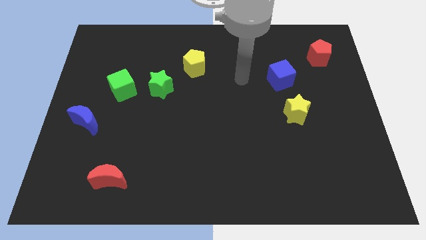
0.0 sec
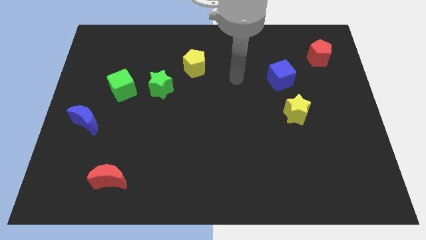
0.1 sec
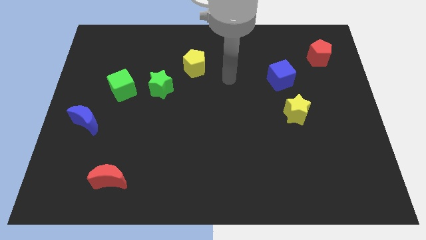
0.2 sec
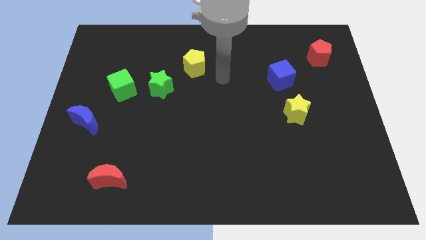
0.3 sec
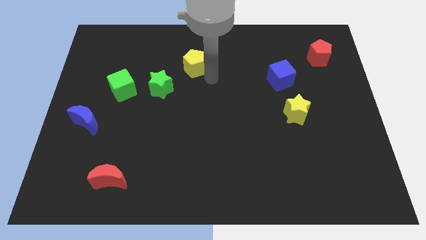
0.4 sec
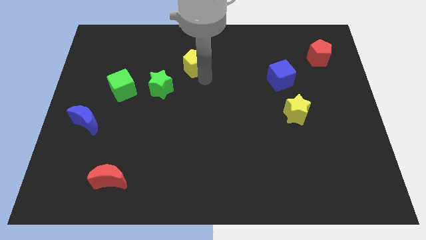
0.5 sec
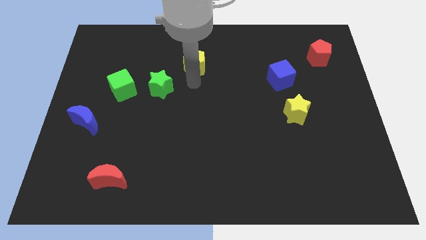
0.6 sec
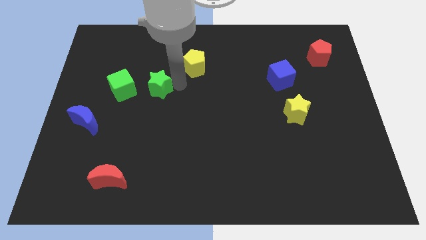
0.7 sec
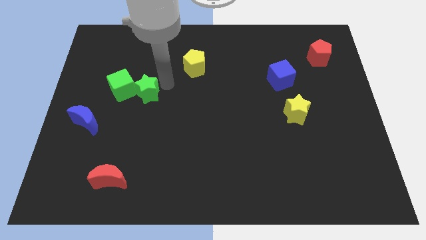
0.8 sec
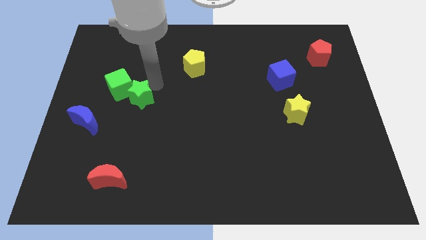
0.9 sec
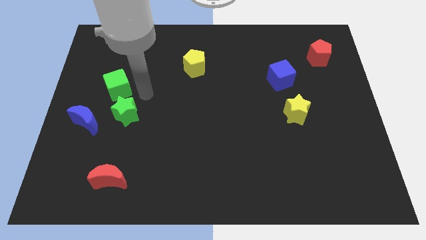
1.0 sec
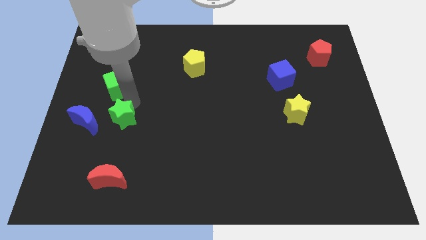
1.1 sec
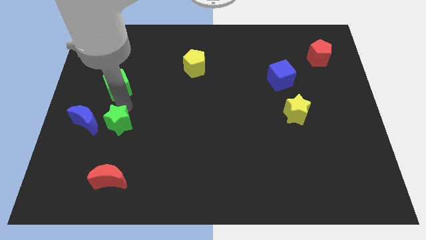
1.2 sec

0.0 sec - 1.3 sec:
pull the green cube apart from the green star

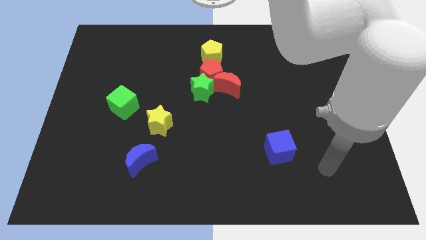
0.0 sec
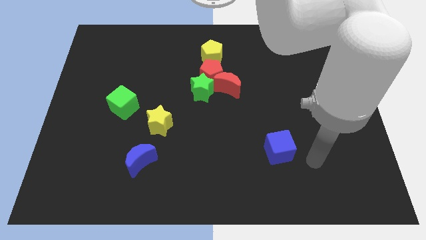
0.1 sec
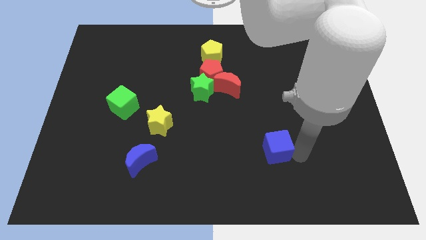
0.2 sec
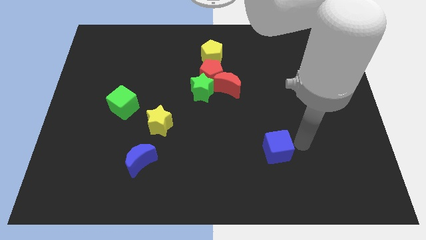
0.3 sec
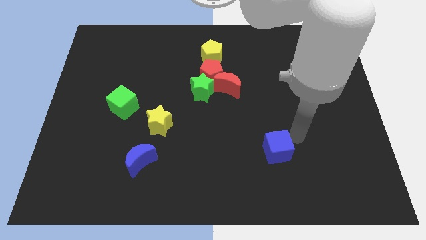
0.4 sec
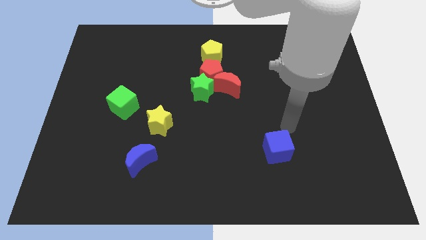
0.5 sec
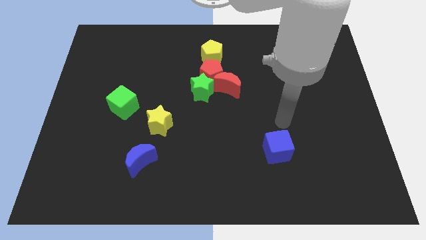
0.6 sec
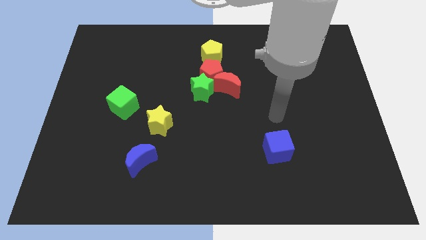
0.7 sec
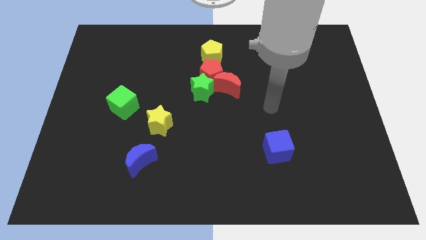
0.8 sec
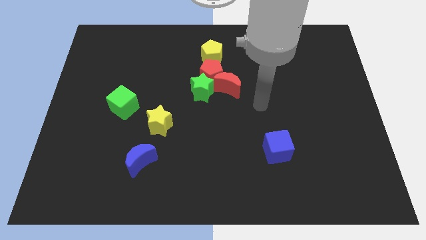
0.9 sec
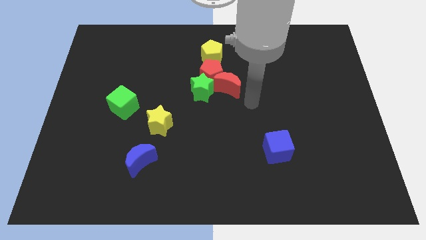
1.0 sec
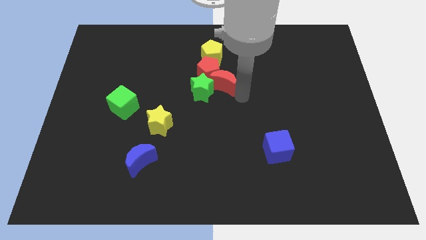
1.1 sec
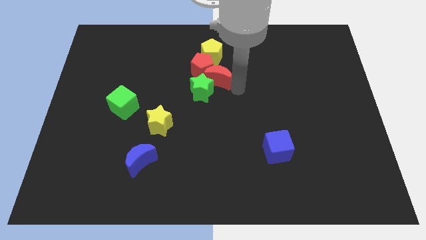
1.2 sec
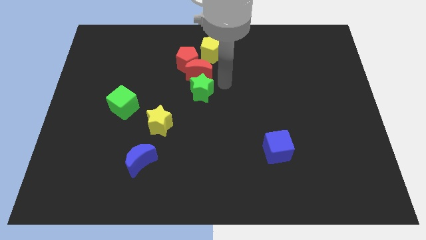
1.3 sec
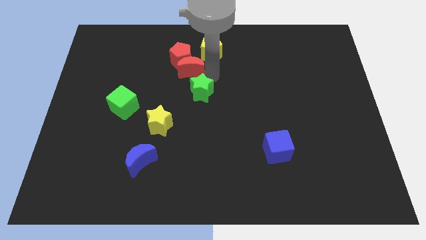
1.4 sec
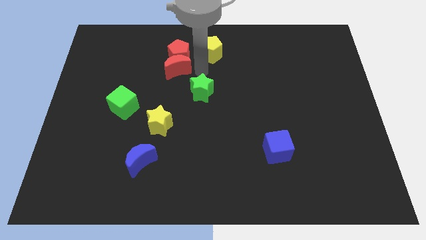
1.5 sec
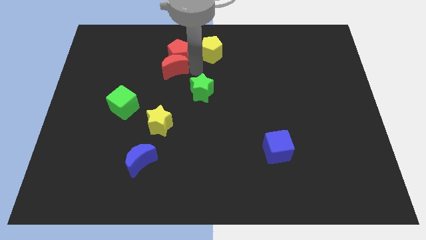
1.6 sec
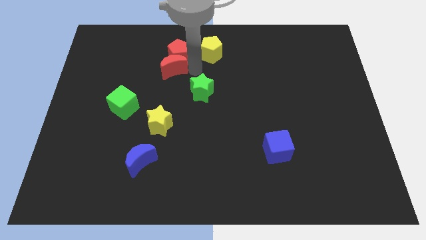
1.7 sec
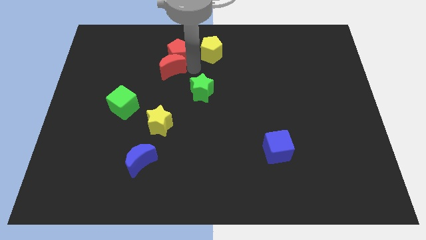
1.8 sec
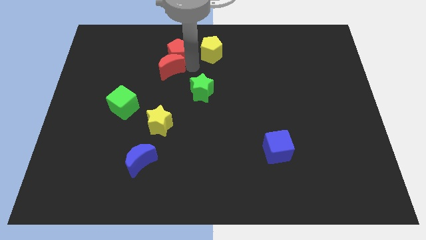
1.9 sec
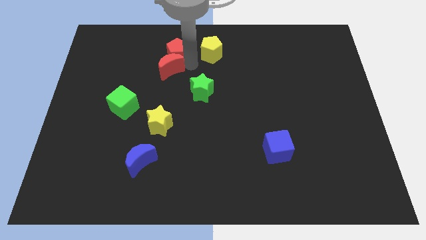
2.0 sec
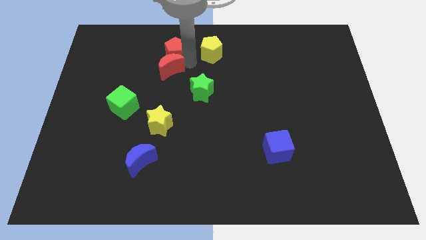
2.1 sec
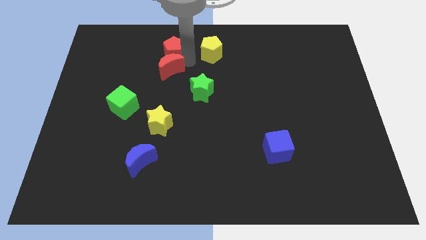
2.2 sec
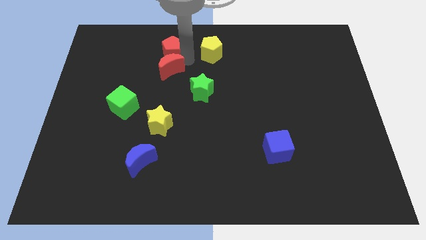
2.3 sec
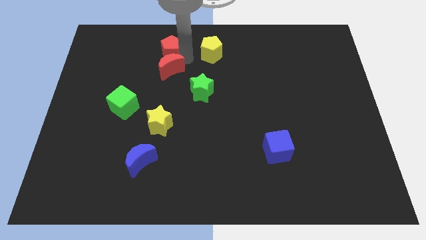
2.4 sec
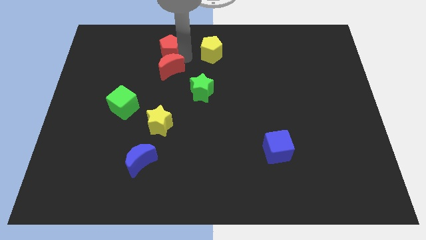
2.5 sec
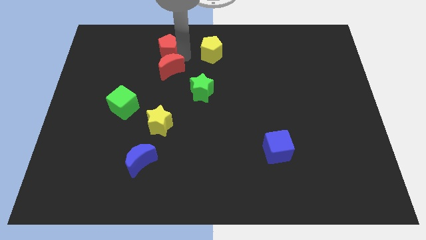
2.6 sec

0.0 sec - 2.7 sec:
separate the red pentagon from the group of blocks

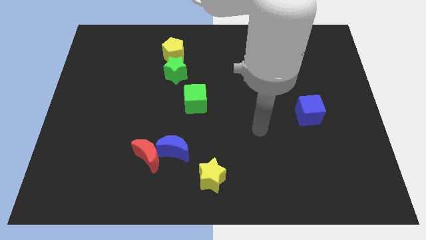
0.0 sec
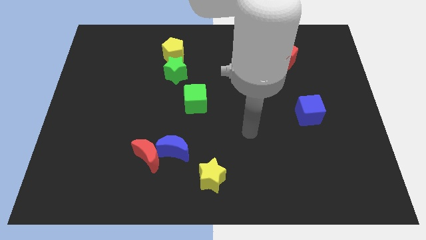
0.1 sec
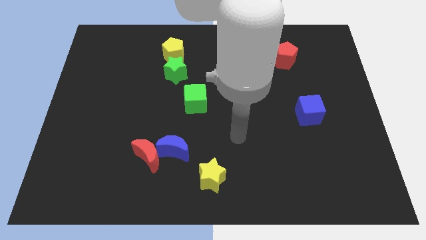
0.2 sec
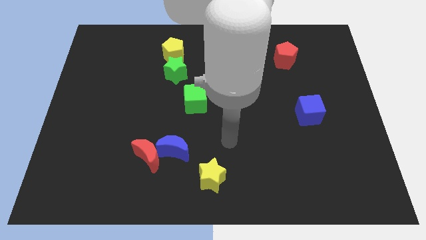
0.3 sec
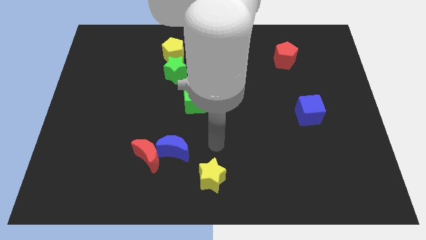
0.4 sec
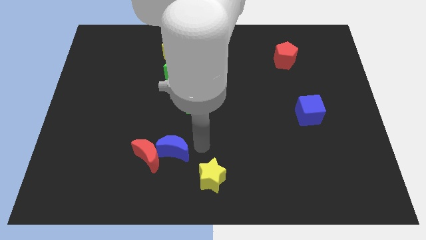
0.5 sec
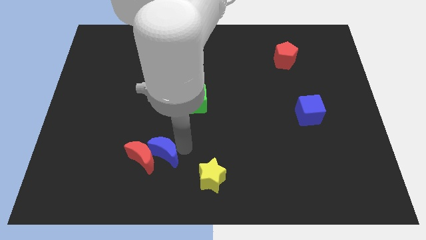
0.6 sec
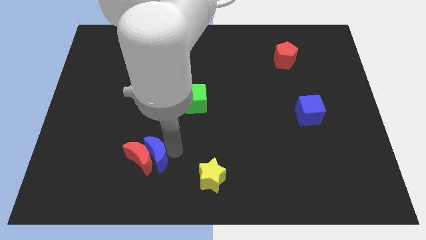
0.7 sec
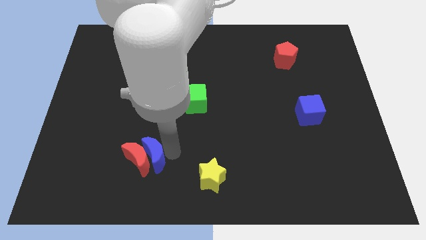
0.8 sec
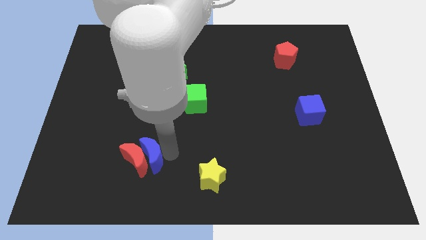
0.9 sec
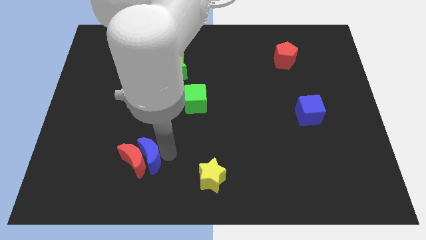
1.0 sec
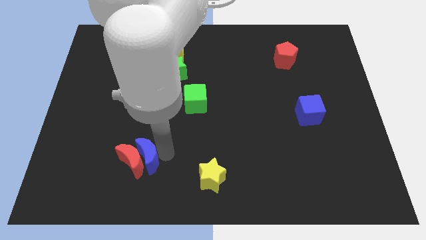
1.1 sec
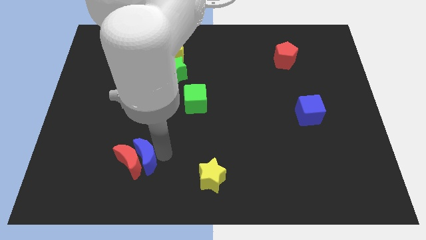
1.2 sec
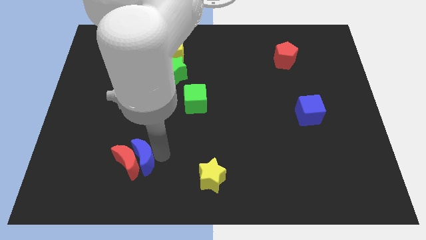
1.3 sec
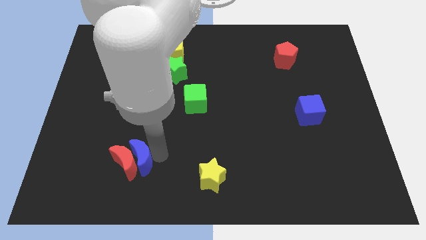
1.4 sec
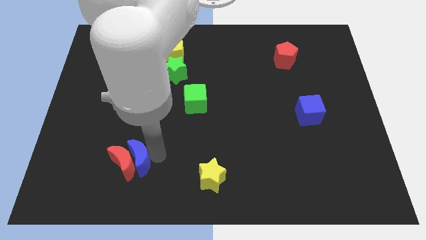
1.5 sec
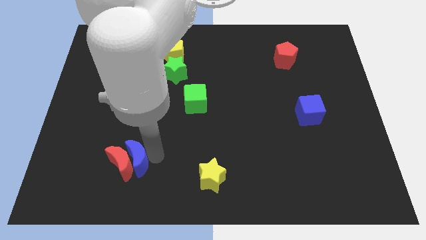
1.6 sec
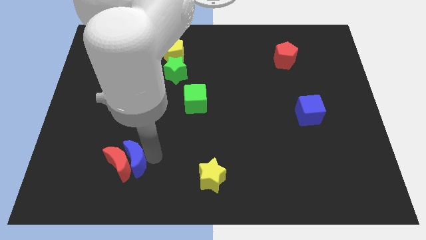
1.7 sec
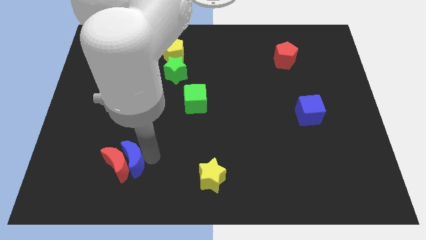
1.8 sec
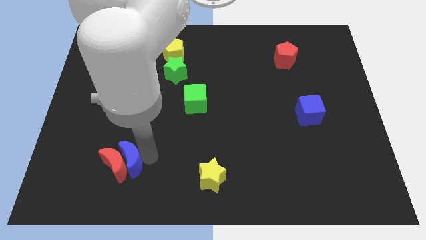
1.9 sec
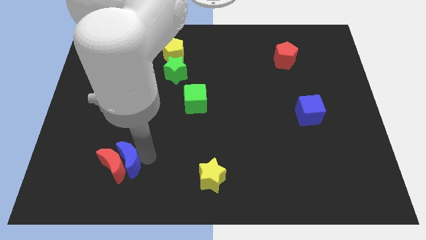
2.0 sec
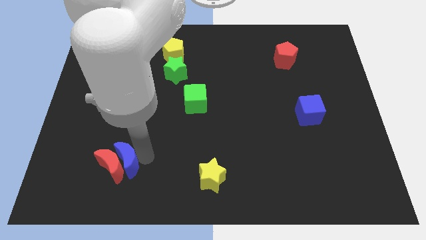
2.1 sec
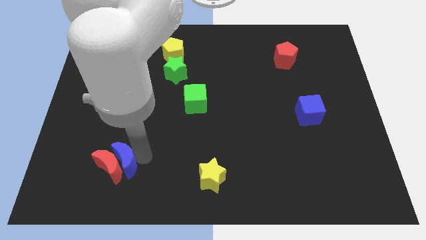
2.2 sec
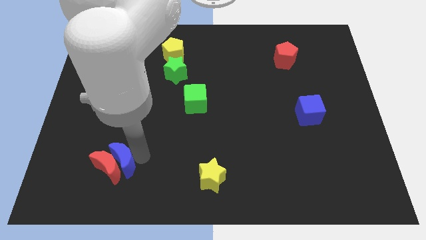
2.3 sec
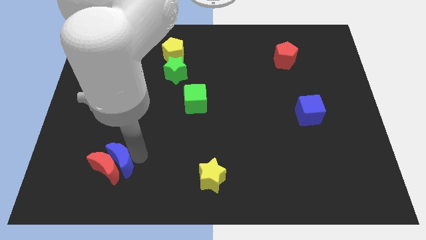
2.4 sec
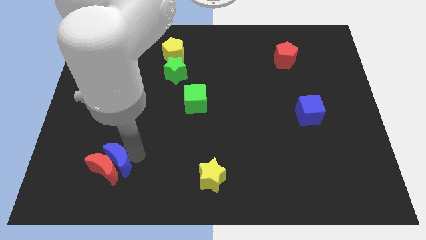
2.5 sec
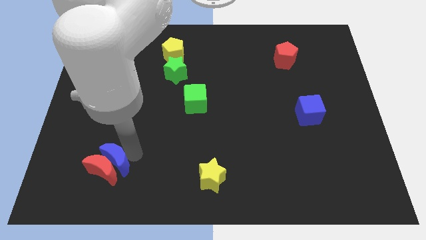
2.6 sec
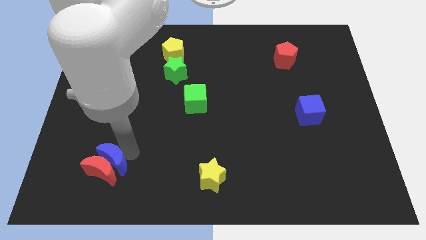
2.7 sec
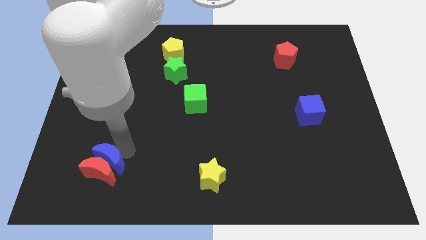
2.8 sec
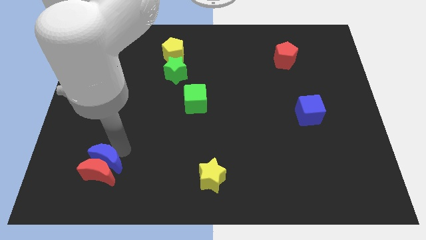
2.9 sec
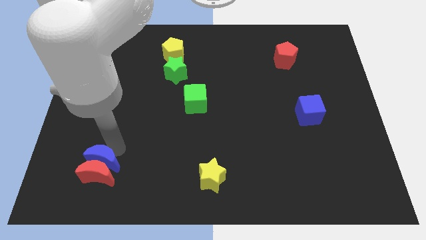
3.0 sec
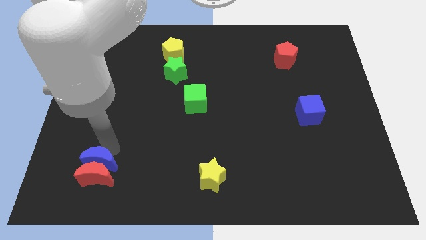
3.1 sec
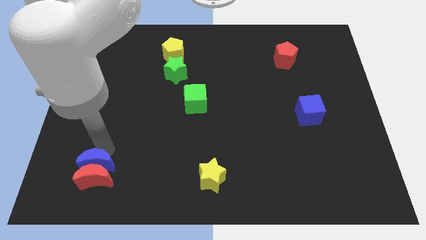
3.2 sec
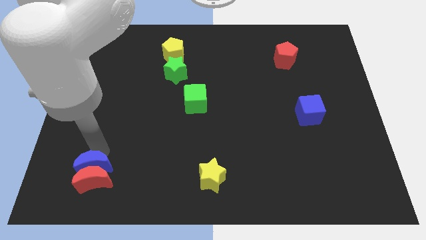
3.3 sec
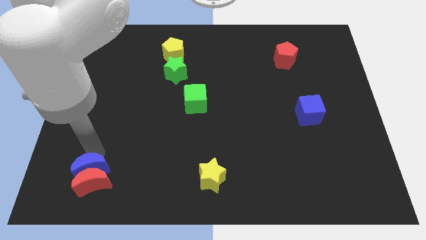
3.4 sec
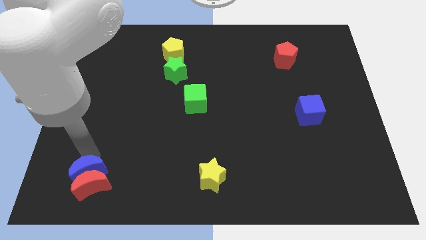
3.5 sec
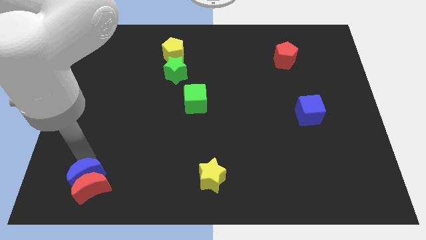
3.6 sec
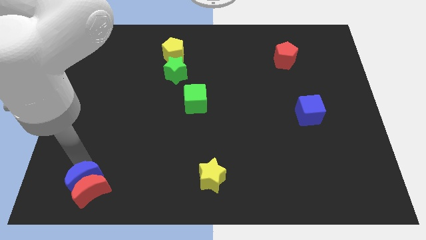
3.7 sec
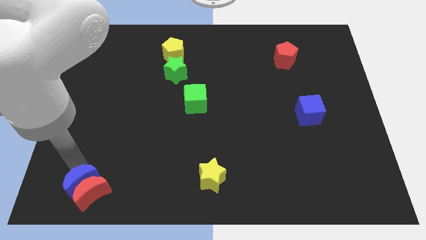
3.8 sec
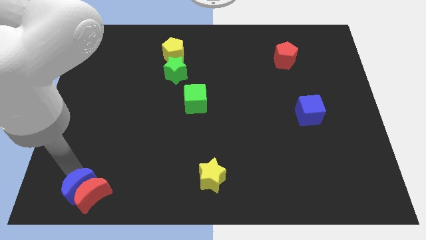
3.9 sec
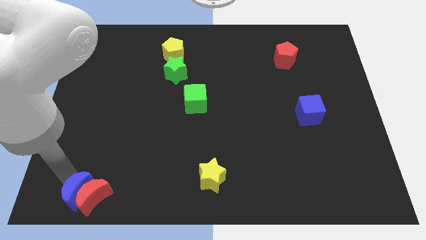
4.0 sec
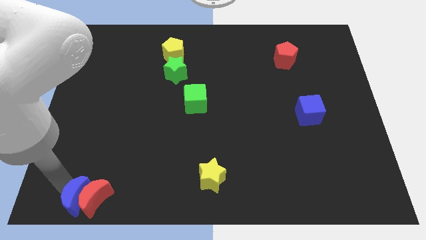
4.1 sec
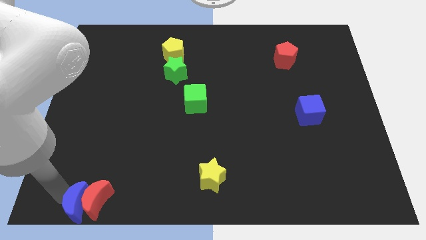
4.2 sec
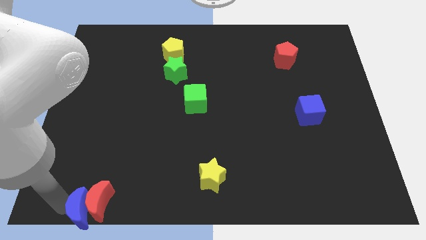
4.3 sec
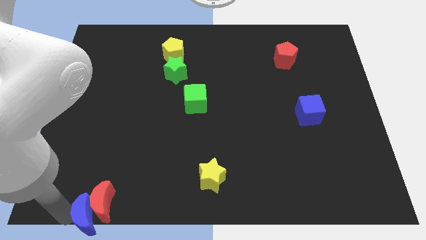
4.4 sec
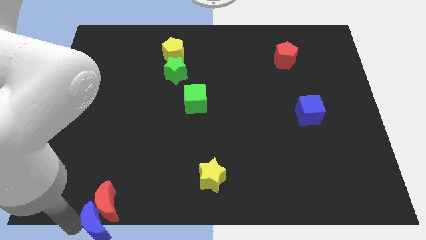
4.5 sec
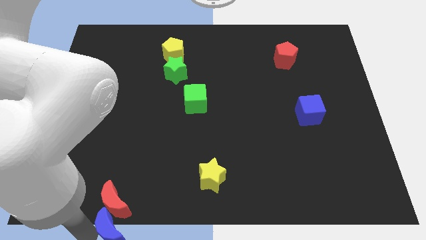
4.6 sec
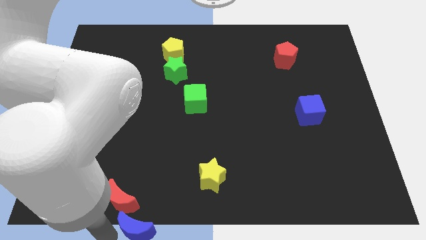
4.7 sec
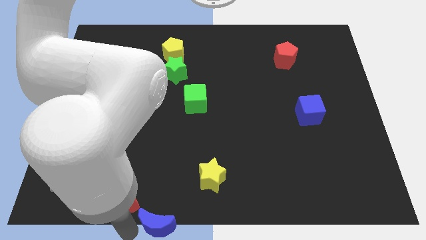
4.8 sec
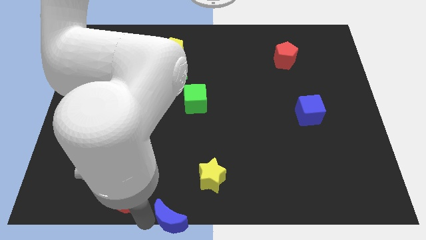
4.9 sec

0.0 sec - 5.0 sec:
move the red moon away from the blue moon

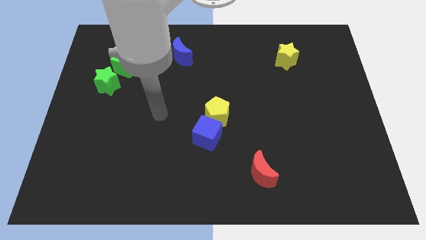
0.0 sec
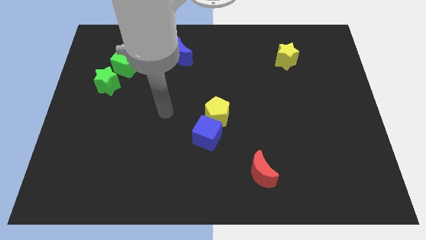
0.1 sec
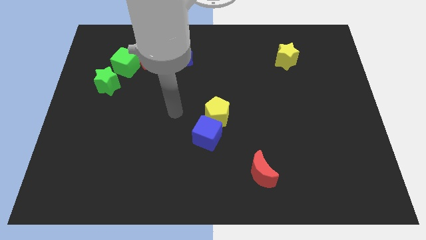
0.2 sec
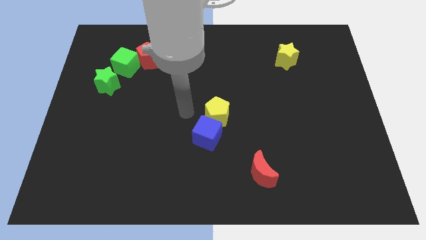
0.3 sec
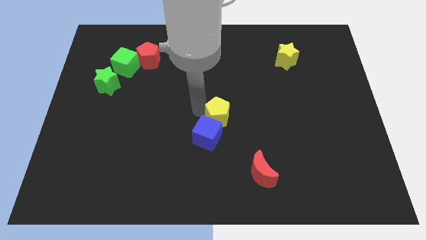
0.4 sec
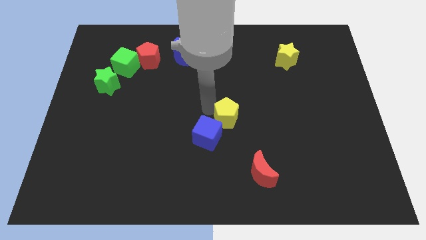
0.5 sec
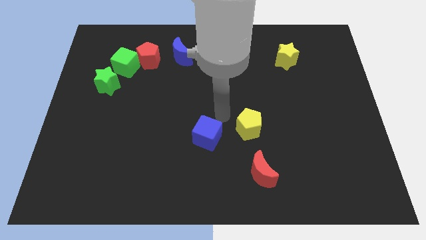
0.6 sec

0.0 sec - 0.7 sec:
separate the blue cube from the yellow pentagon
